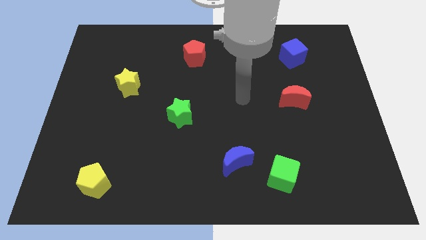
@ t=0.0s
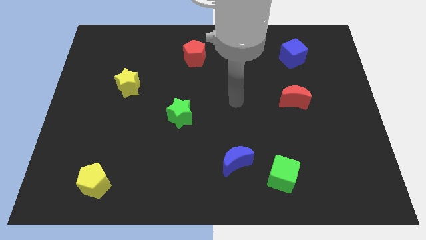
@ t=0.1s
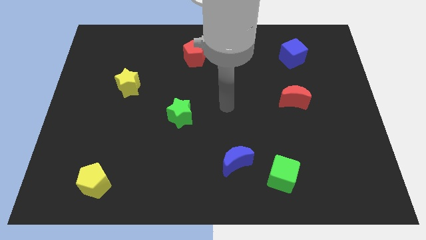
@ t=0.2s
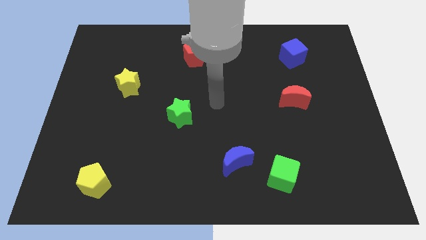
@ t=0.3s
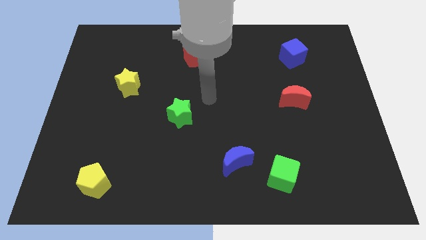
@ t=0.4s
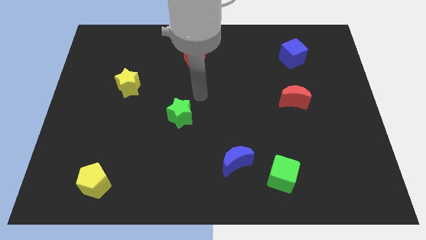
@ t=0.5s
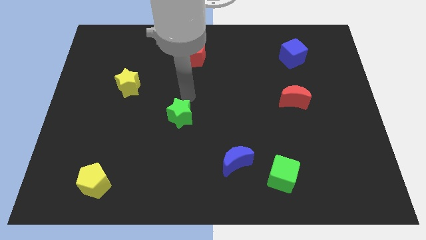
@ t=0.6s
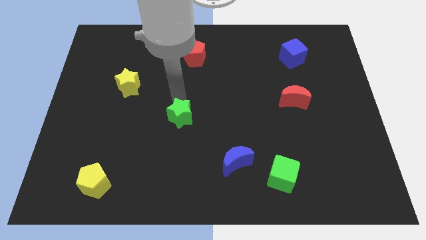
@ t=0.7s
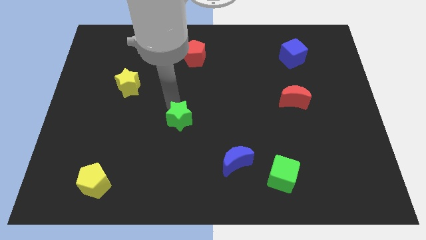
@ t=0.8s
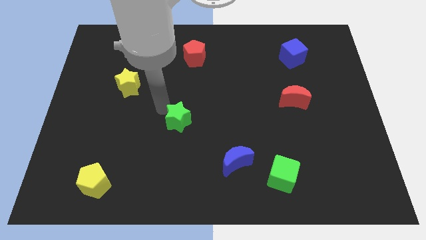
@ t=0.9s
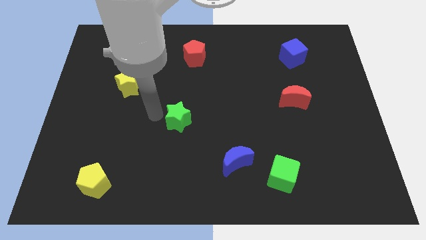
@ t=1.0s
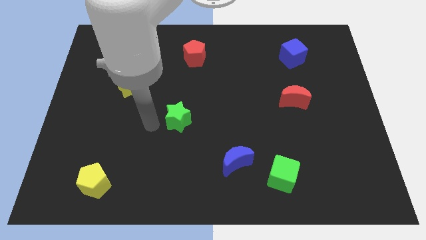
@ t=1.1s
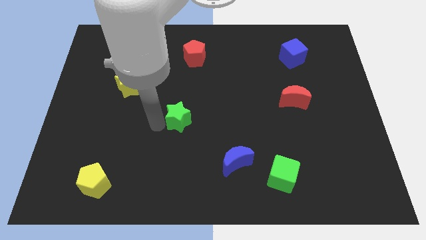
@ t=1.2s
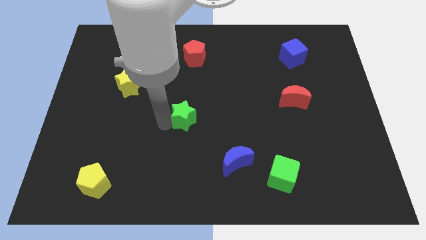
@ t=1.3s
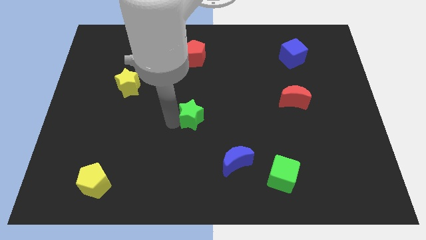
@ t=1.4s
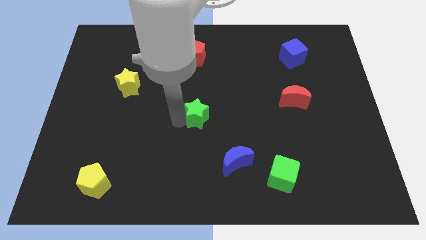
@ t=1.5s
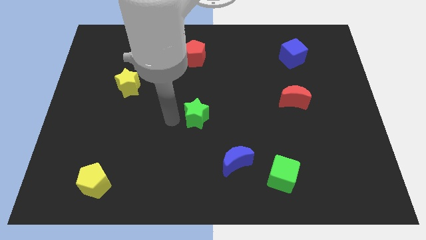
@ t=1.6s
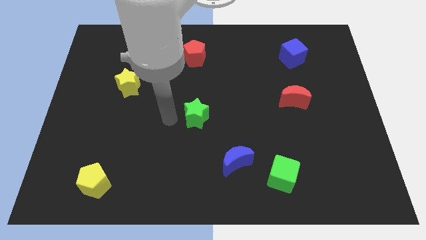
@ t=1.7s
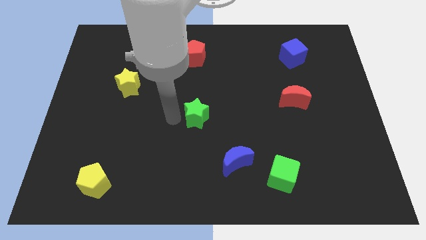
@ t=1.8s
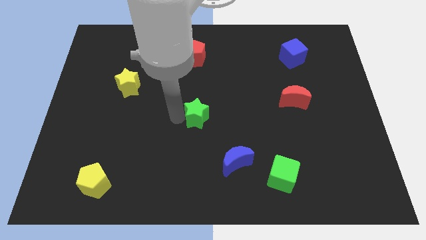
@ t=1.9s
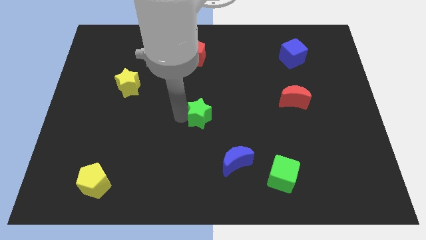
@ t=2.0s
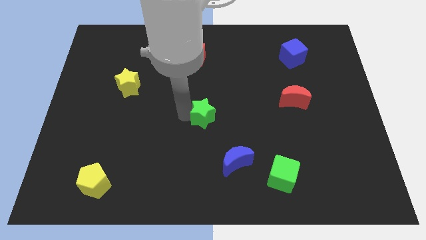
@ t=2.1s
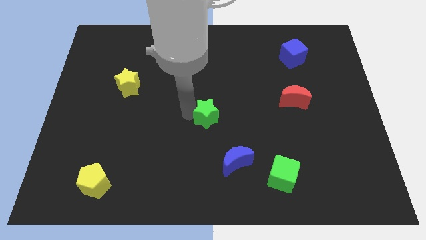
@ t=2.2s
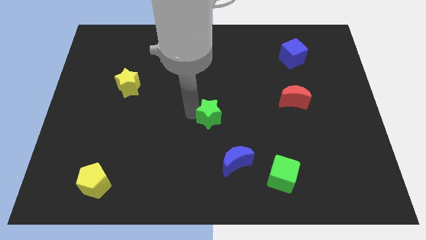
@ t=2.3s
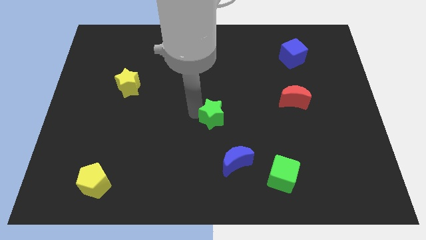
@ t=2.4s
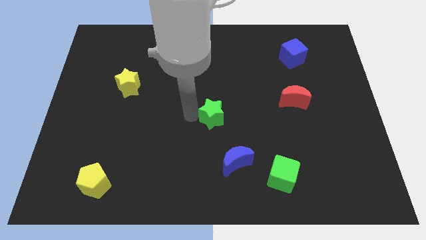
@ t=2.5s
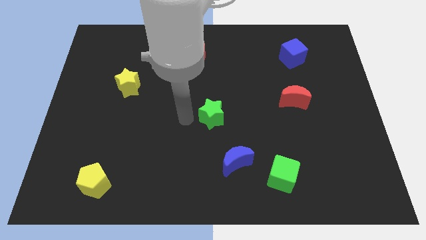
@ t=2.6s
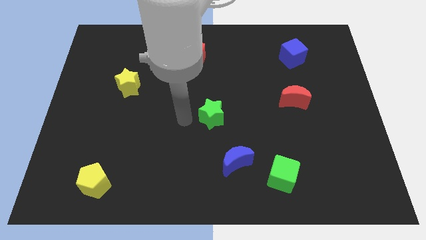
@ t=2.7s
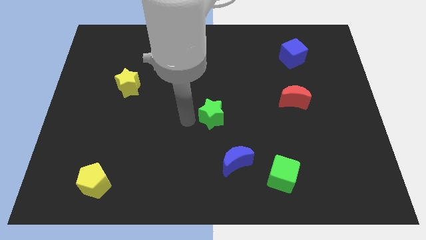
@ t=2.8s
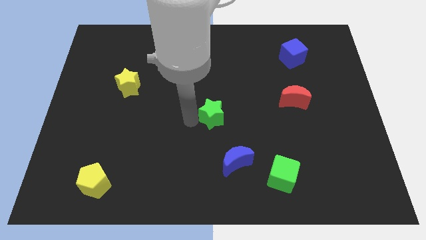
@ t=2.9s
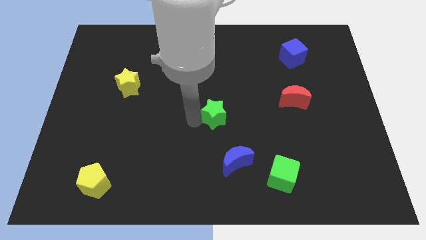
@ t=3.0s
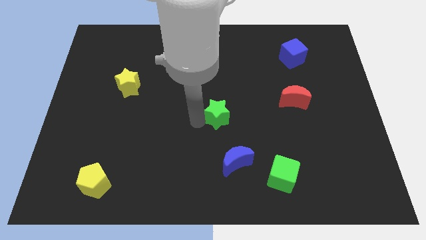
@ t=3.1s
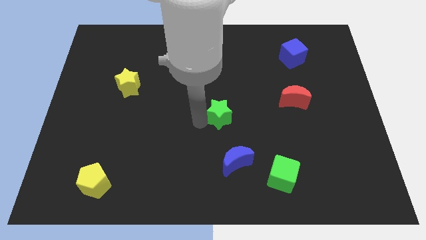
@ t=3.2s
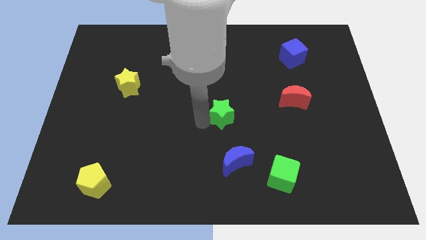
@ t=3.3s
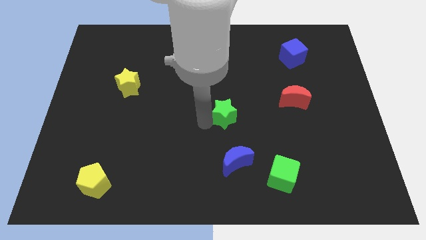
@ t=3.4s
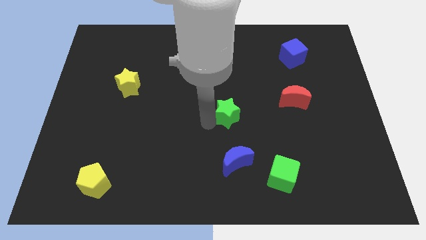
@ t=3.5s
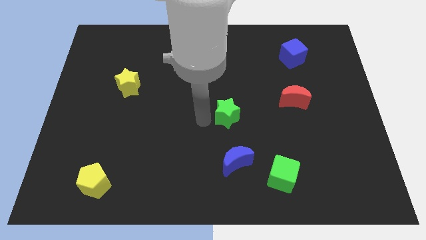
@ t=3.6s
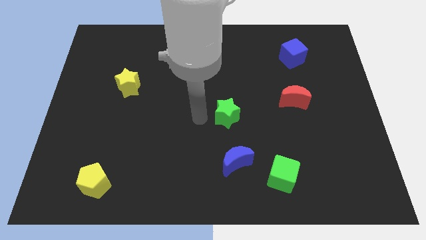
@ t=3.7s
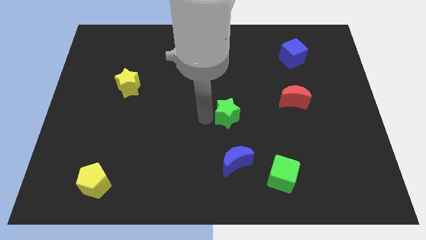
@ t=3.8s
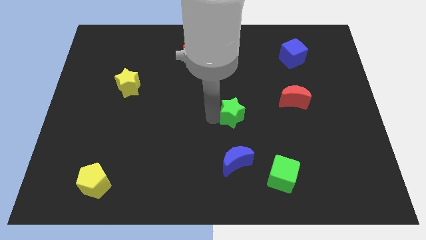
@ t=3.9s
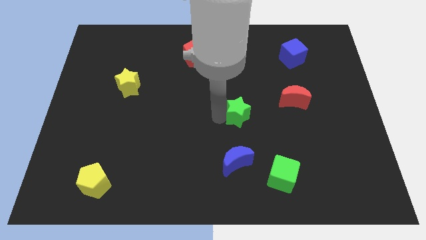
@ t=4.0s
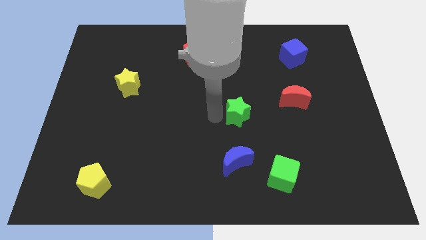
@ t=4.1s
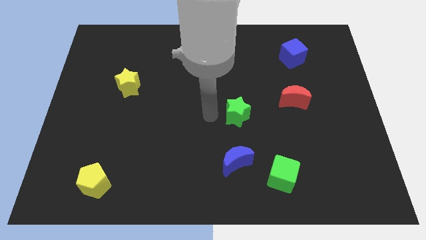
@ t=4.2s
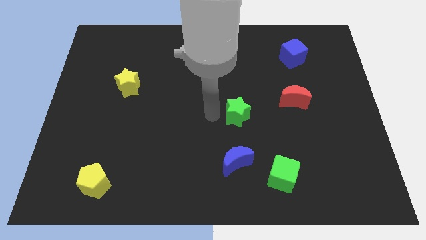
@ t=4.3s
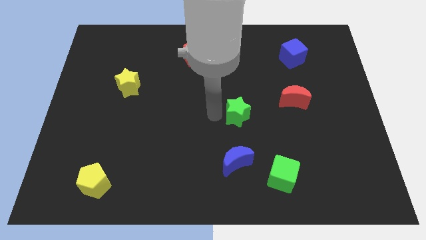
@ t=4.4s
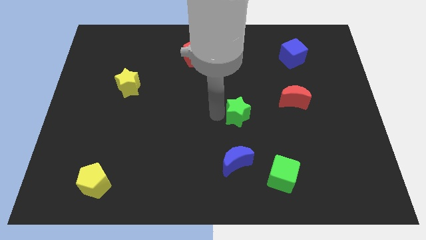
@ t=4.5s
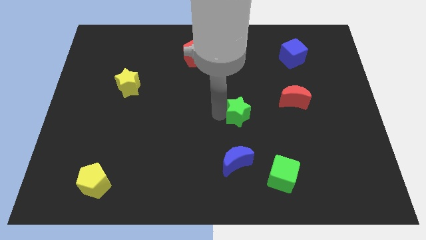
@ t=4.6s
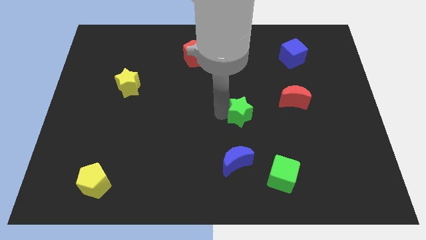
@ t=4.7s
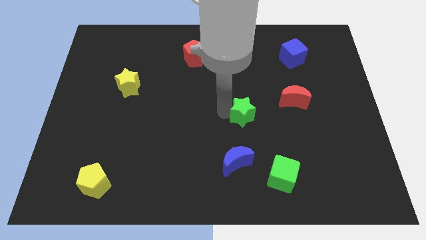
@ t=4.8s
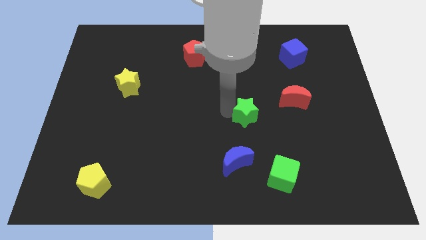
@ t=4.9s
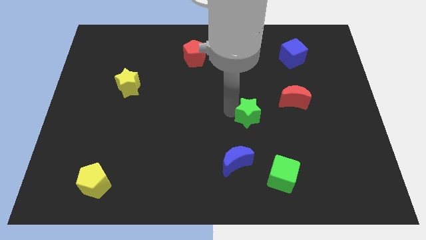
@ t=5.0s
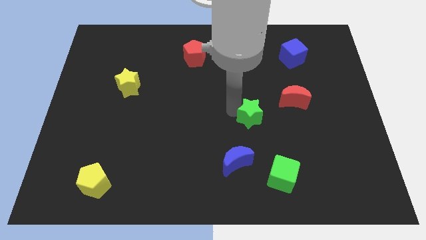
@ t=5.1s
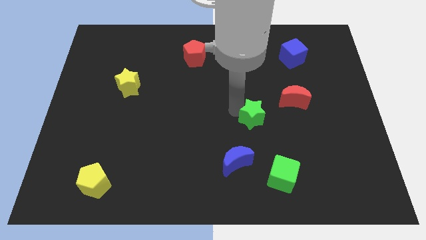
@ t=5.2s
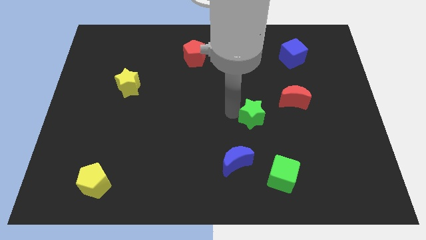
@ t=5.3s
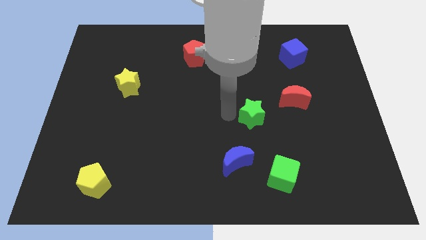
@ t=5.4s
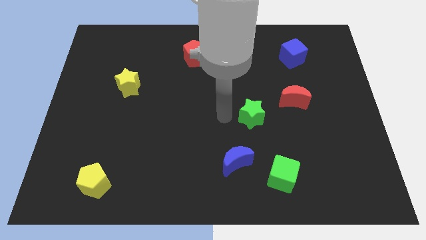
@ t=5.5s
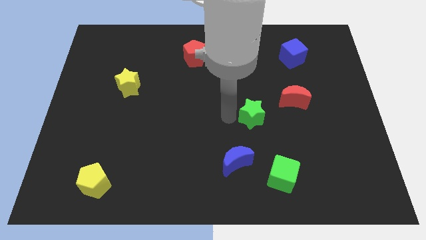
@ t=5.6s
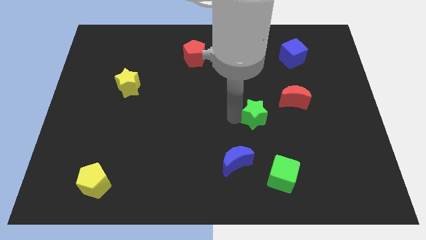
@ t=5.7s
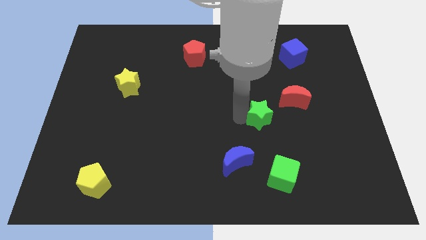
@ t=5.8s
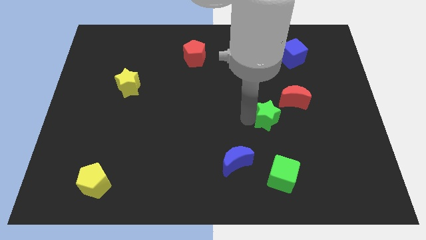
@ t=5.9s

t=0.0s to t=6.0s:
slide the green star right

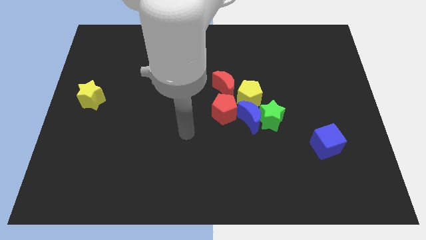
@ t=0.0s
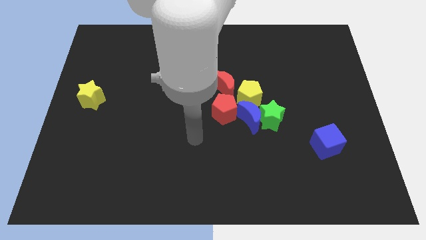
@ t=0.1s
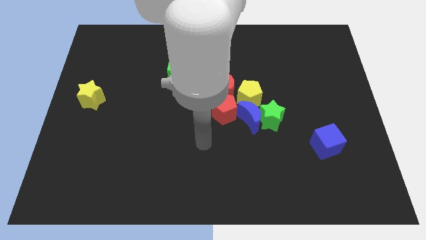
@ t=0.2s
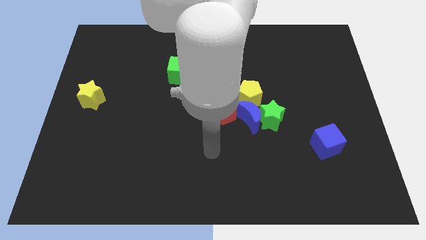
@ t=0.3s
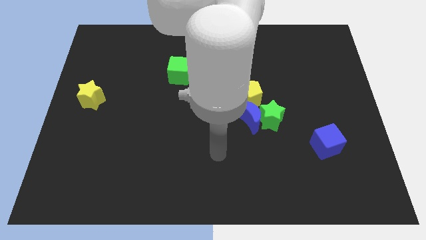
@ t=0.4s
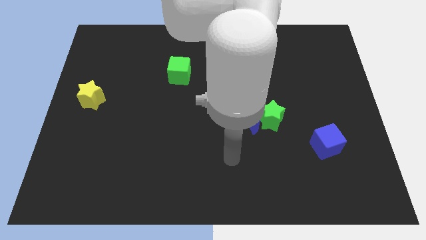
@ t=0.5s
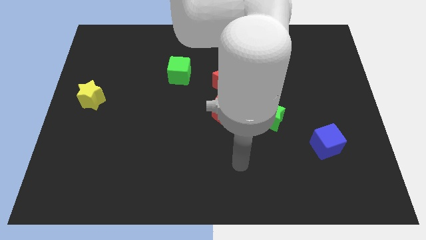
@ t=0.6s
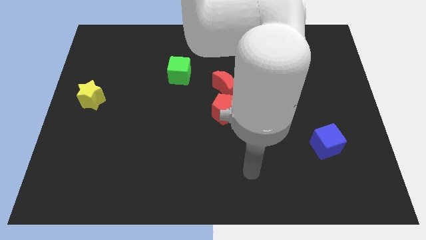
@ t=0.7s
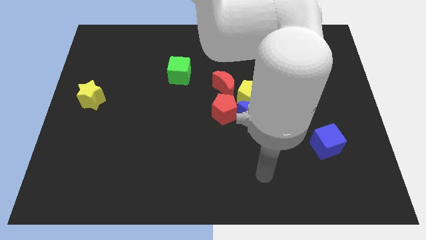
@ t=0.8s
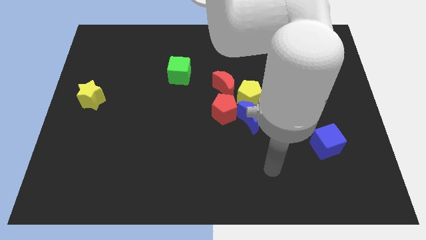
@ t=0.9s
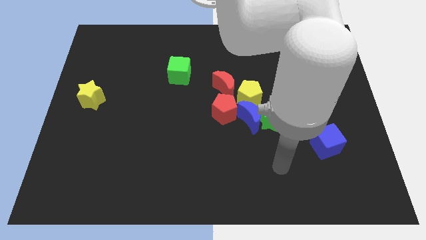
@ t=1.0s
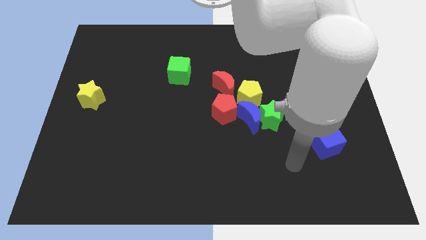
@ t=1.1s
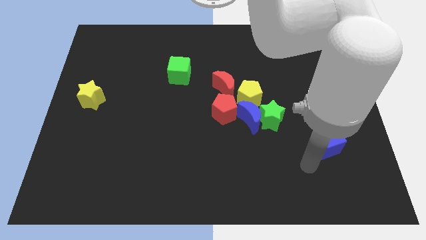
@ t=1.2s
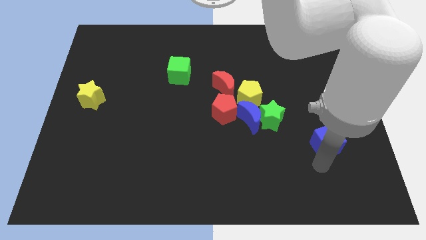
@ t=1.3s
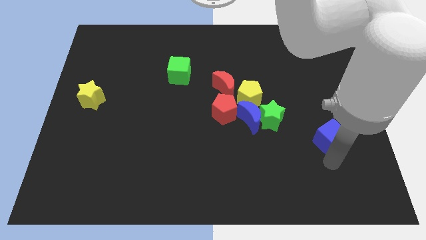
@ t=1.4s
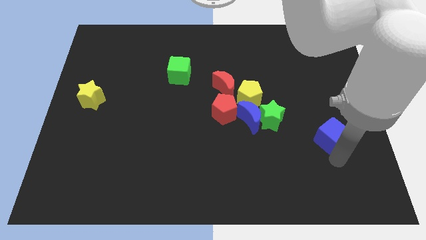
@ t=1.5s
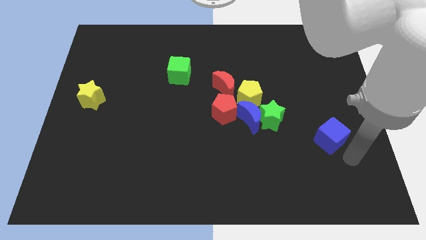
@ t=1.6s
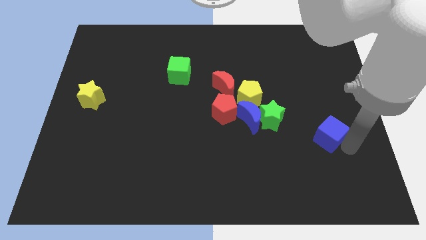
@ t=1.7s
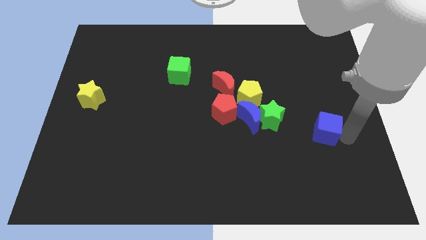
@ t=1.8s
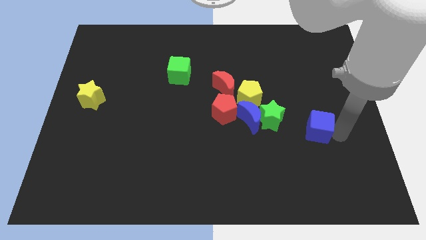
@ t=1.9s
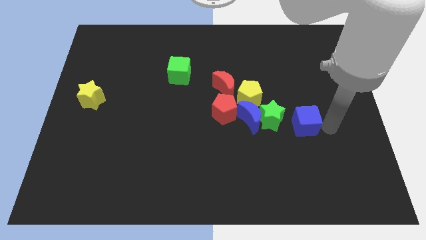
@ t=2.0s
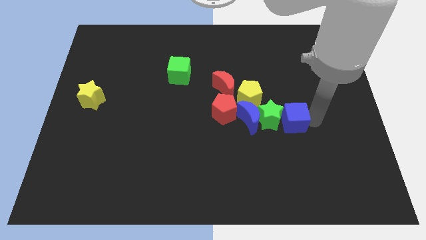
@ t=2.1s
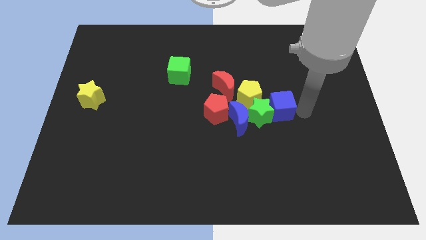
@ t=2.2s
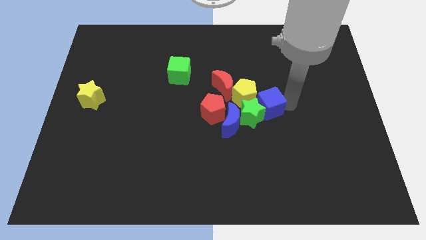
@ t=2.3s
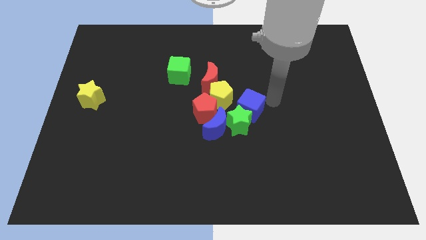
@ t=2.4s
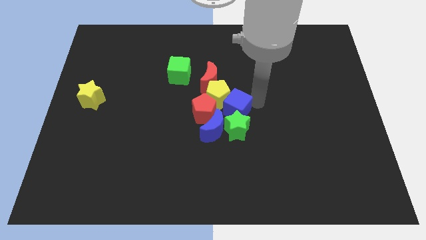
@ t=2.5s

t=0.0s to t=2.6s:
push the green star slightly downwards and to the left
